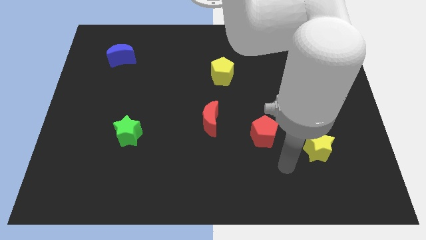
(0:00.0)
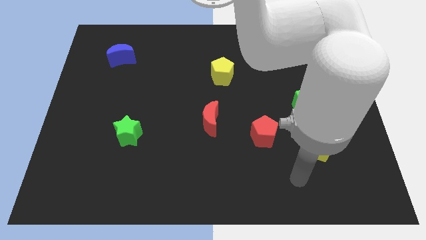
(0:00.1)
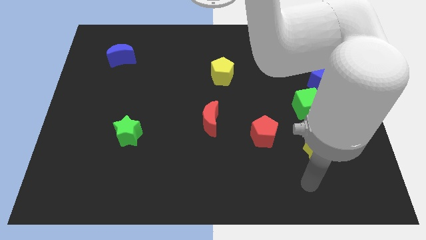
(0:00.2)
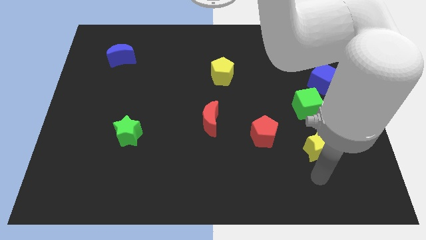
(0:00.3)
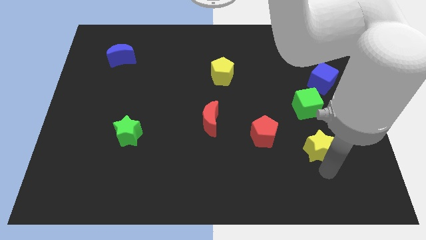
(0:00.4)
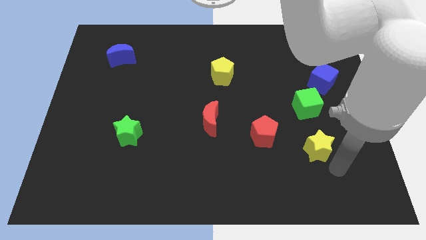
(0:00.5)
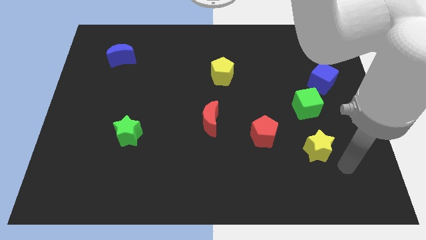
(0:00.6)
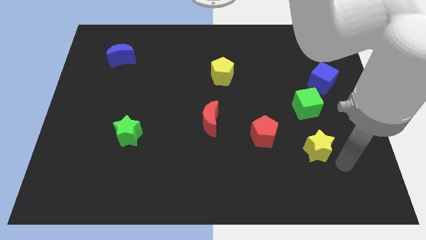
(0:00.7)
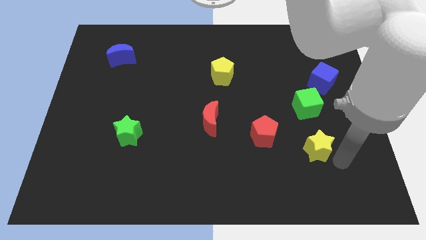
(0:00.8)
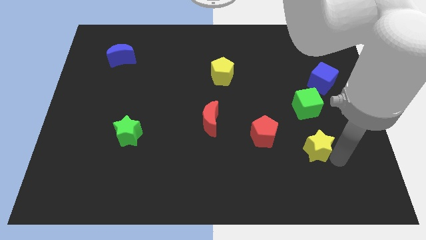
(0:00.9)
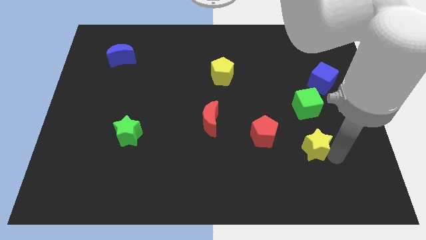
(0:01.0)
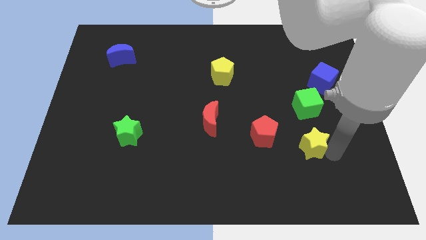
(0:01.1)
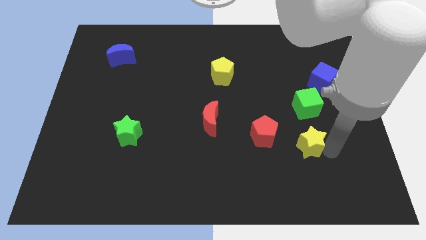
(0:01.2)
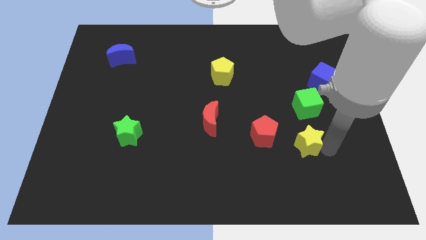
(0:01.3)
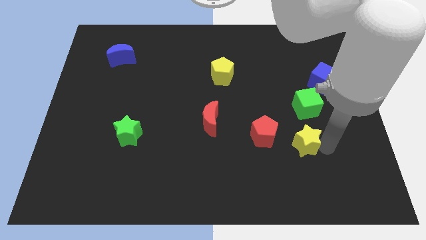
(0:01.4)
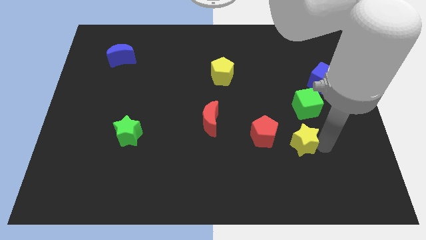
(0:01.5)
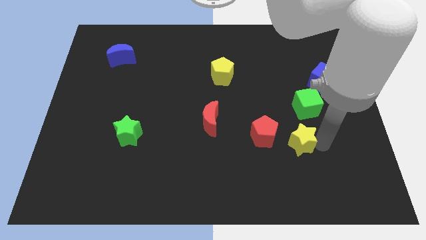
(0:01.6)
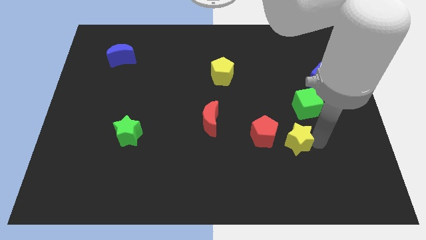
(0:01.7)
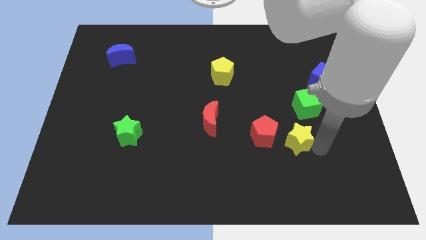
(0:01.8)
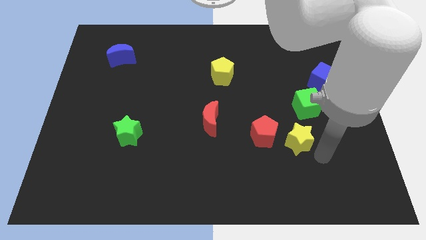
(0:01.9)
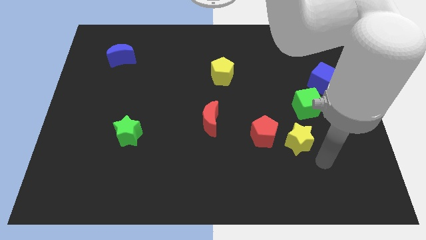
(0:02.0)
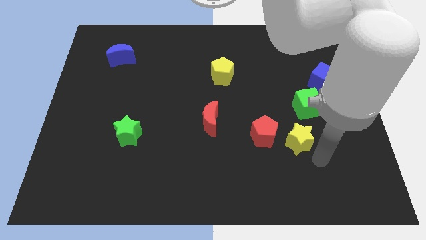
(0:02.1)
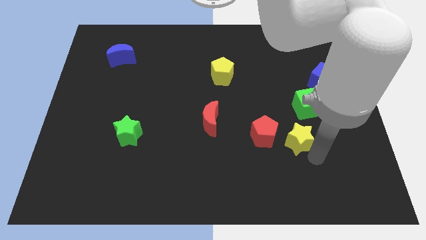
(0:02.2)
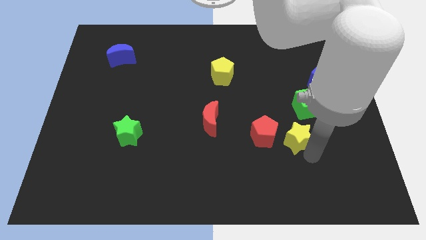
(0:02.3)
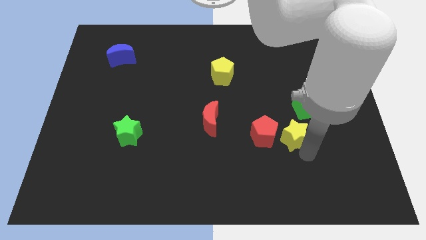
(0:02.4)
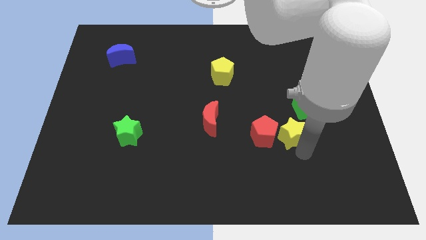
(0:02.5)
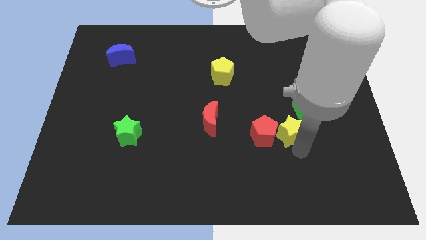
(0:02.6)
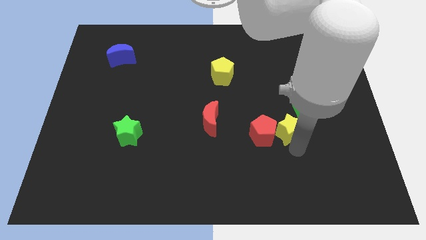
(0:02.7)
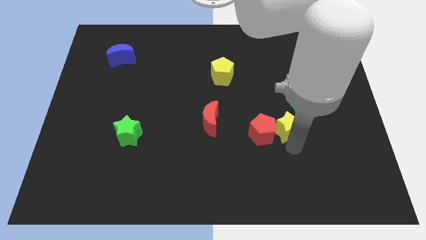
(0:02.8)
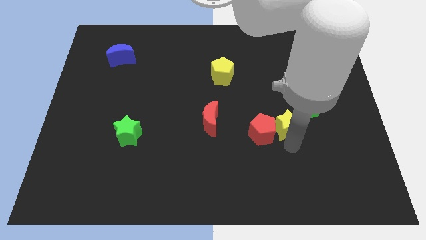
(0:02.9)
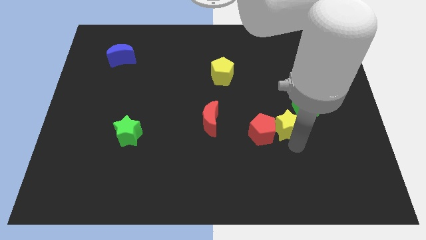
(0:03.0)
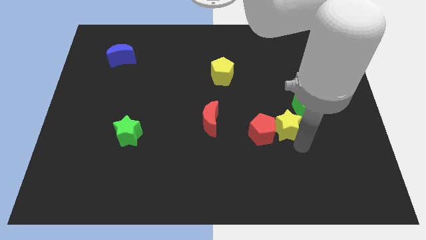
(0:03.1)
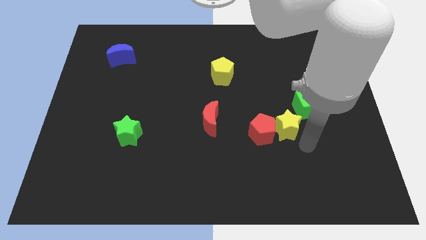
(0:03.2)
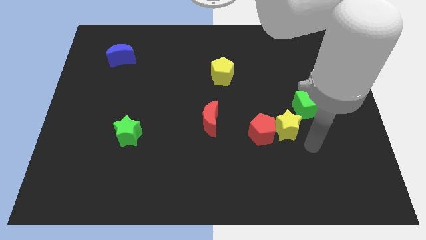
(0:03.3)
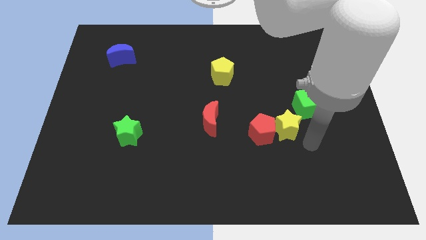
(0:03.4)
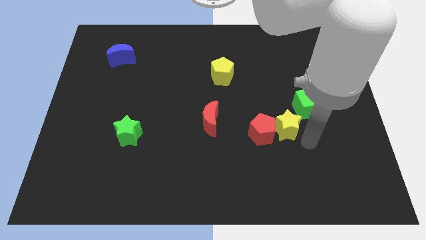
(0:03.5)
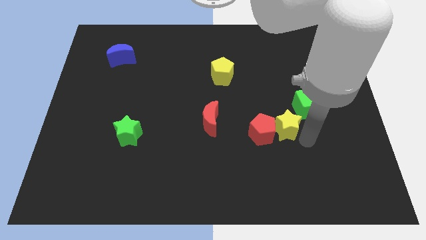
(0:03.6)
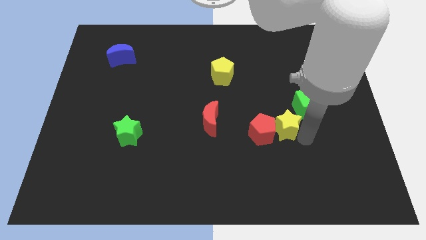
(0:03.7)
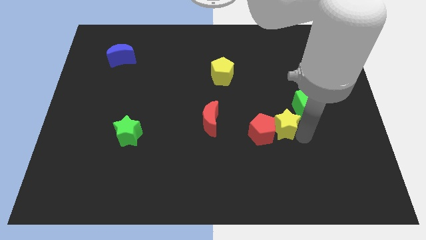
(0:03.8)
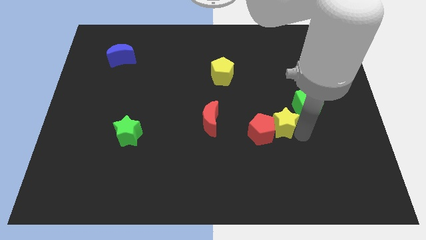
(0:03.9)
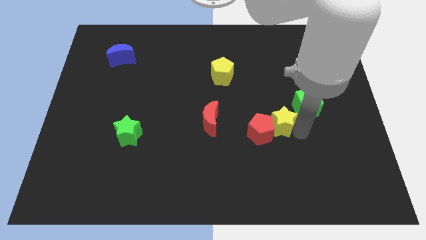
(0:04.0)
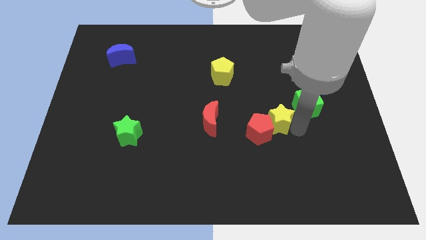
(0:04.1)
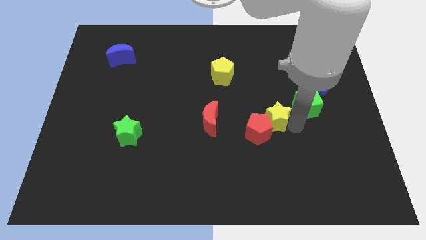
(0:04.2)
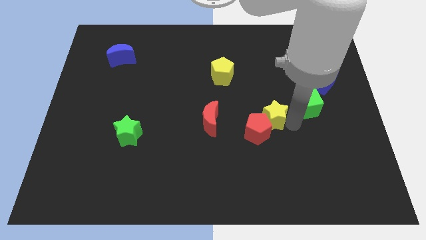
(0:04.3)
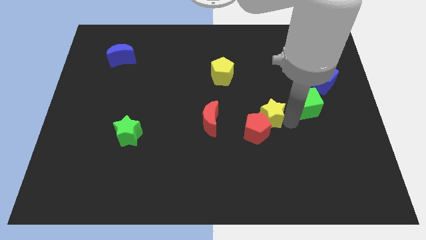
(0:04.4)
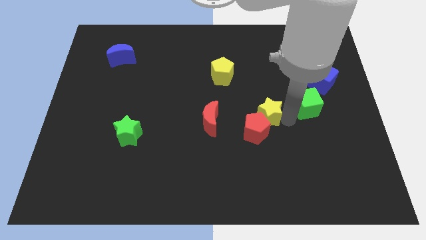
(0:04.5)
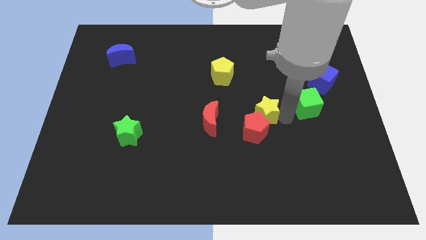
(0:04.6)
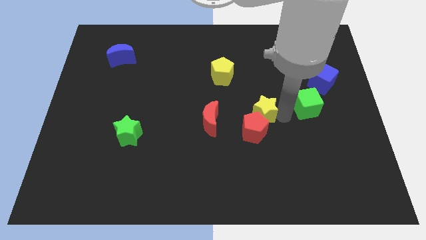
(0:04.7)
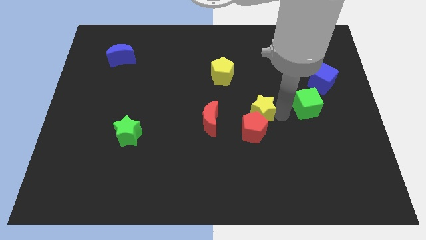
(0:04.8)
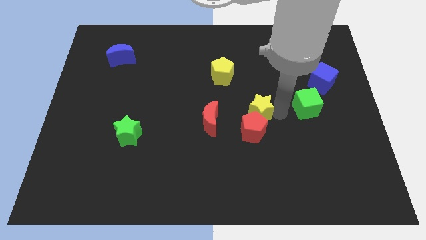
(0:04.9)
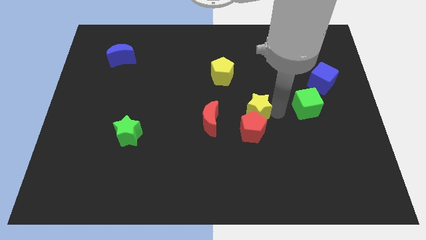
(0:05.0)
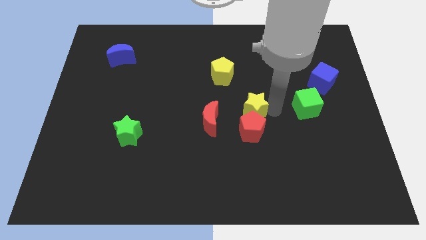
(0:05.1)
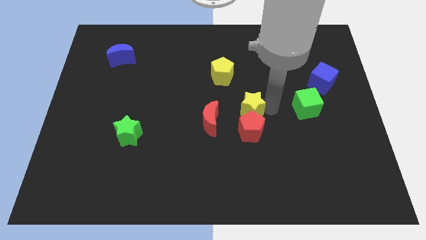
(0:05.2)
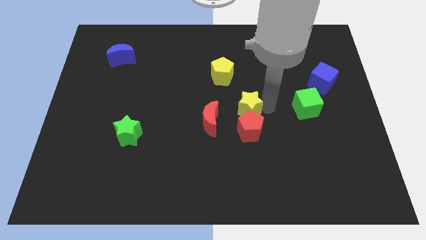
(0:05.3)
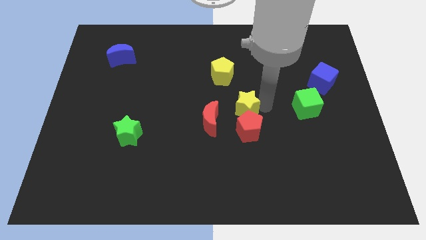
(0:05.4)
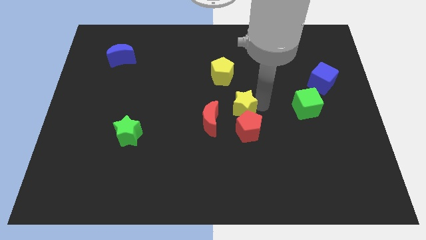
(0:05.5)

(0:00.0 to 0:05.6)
move the yellow star to the bottom side of the yellow pentagon

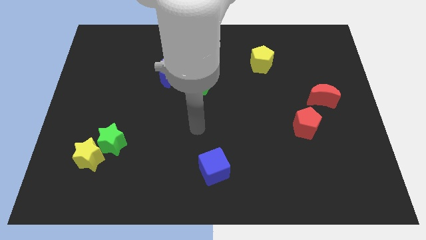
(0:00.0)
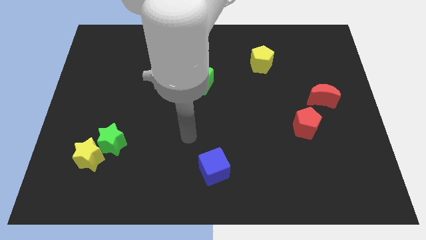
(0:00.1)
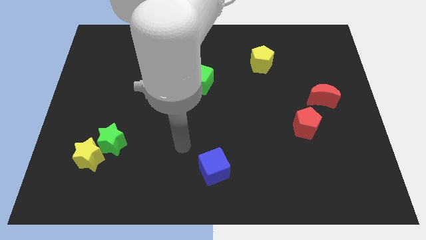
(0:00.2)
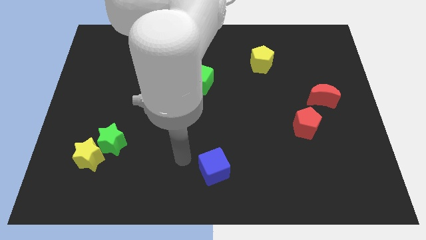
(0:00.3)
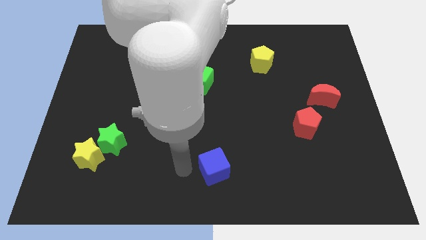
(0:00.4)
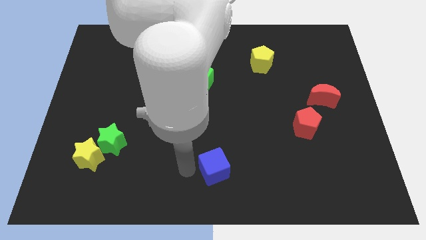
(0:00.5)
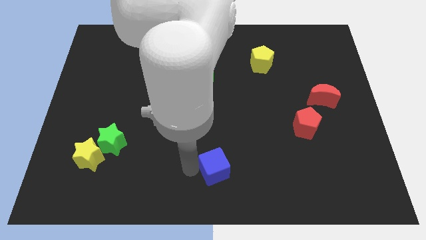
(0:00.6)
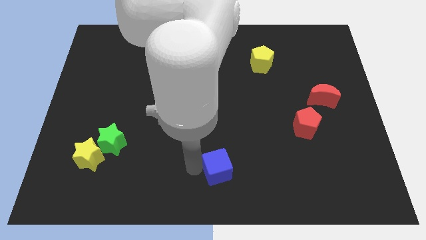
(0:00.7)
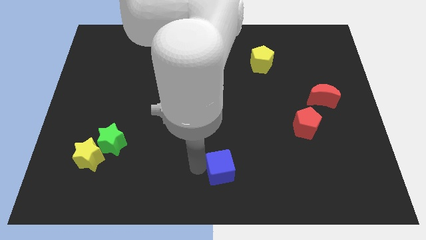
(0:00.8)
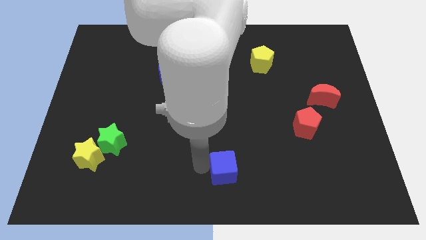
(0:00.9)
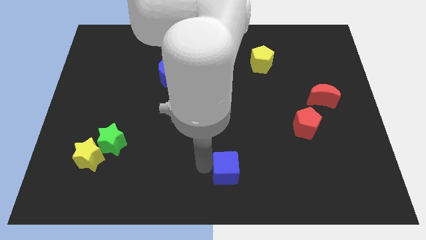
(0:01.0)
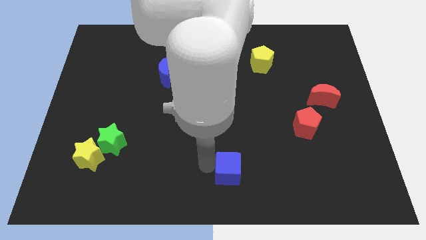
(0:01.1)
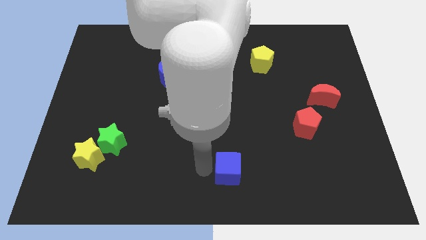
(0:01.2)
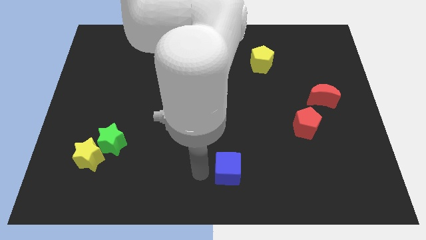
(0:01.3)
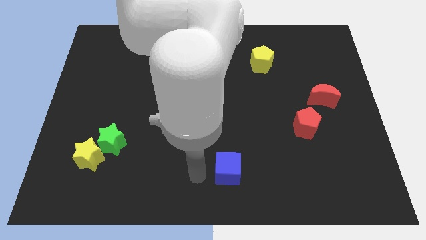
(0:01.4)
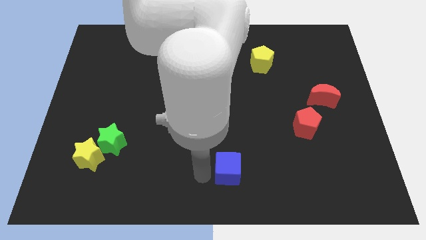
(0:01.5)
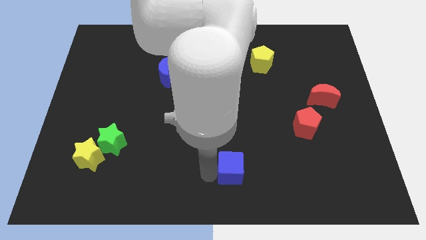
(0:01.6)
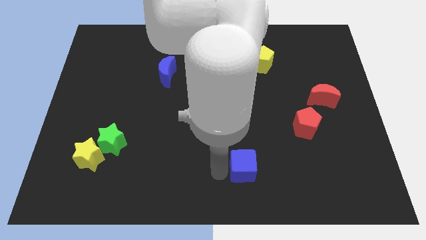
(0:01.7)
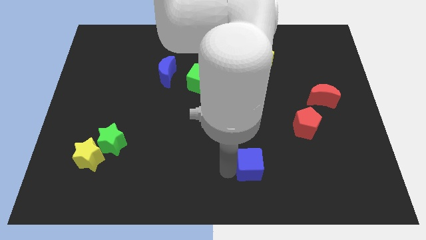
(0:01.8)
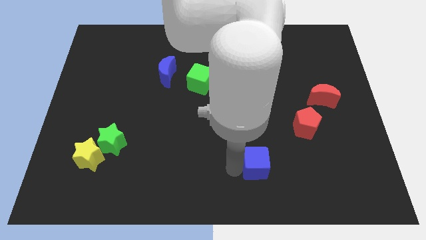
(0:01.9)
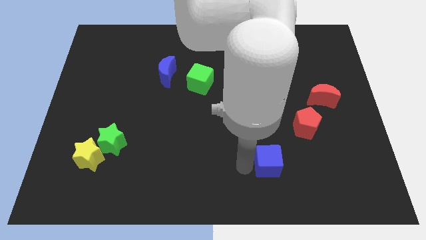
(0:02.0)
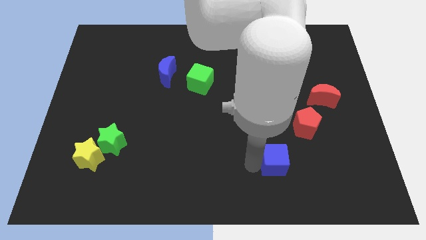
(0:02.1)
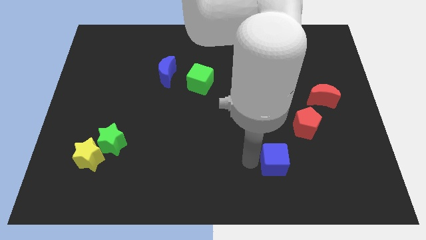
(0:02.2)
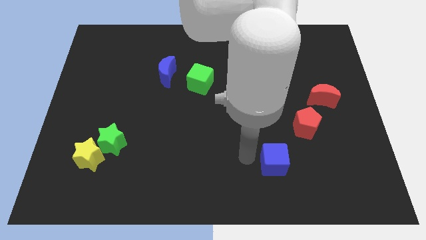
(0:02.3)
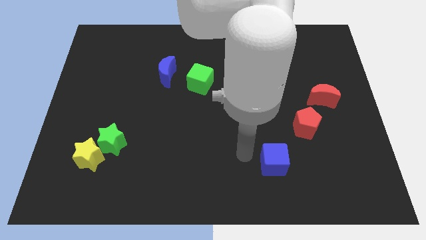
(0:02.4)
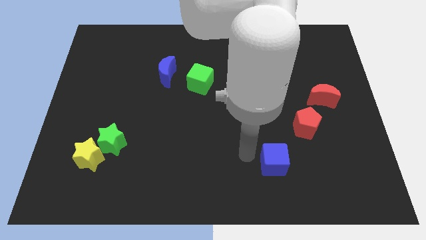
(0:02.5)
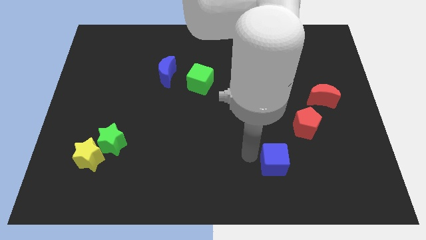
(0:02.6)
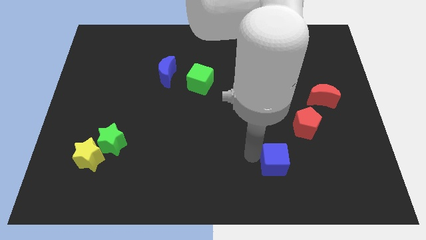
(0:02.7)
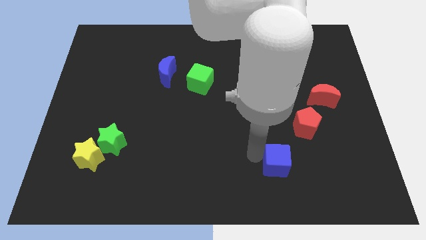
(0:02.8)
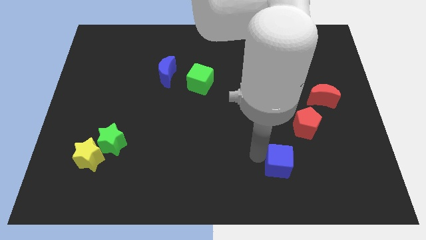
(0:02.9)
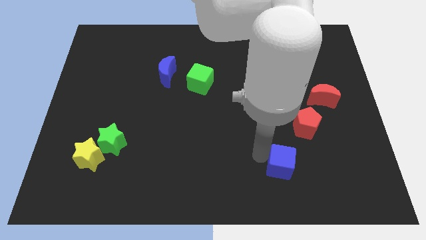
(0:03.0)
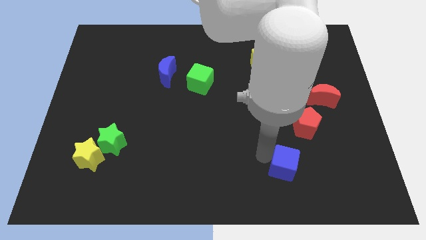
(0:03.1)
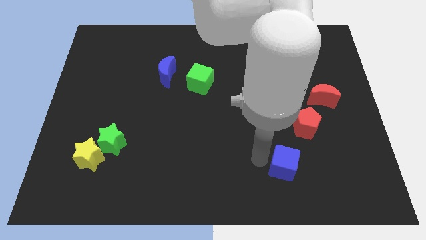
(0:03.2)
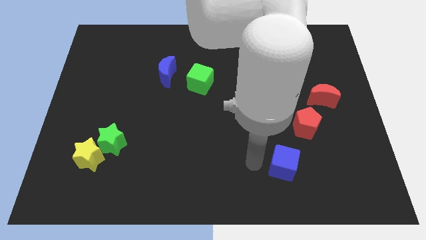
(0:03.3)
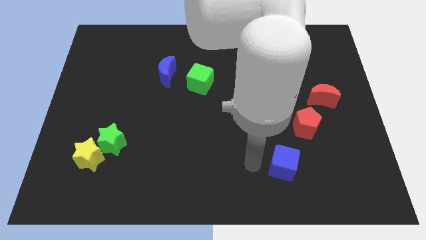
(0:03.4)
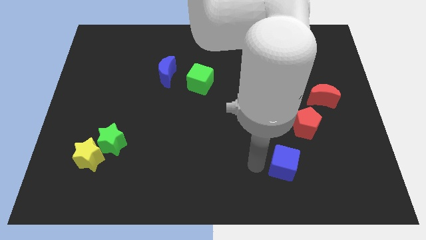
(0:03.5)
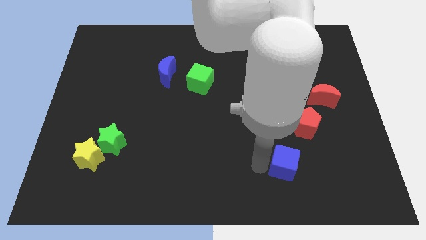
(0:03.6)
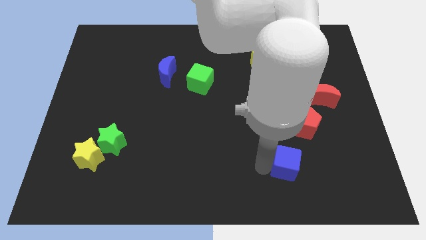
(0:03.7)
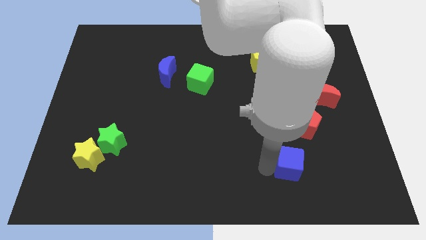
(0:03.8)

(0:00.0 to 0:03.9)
push the blue cube to the bottom of the red pentagon
